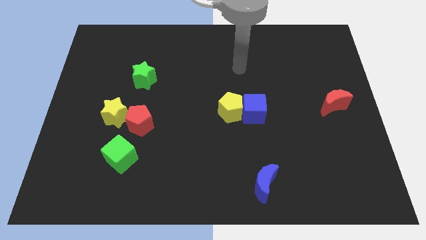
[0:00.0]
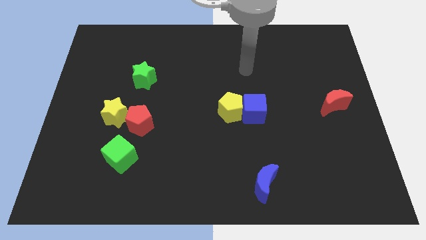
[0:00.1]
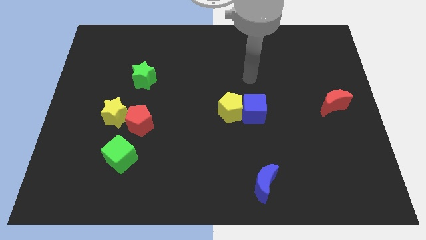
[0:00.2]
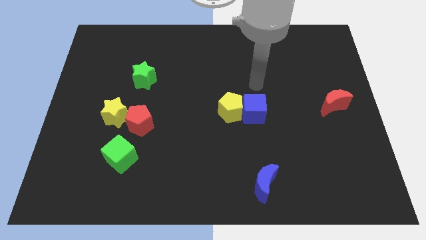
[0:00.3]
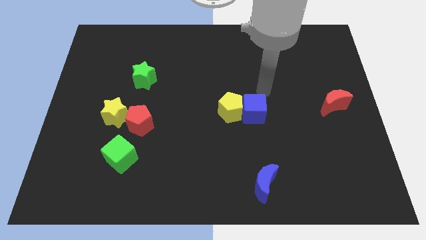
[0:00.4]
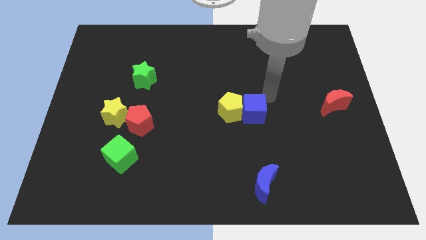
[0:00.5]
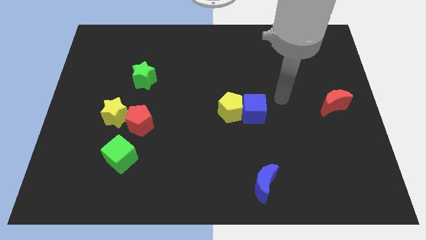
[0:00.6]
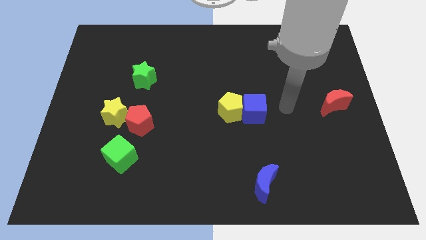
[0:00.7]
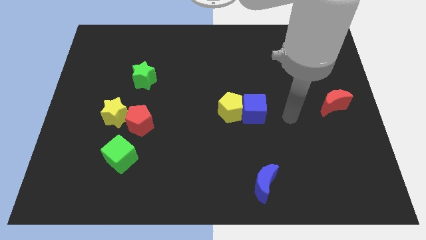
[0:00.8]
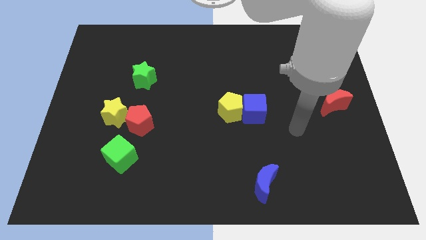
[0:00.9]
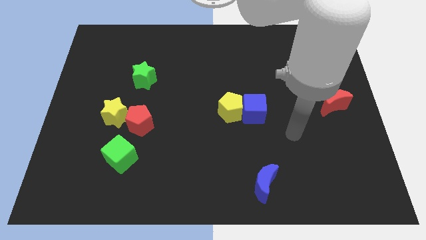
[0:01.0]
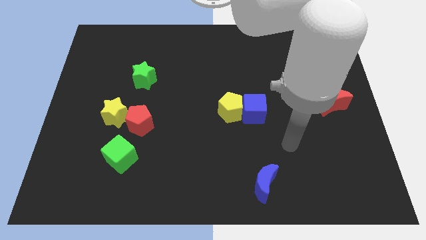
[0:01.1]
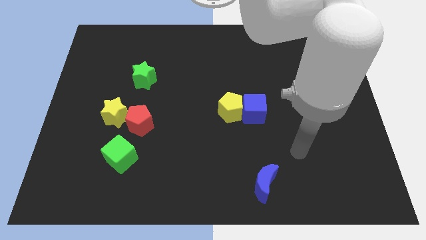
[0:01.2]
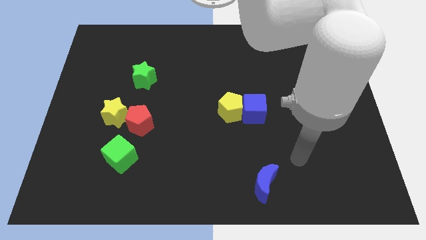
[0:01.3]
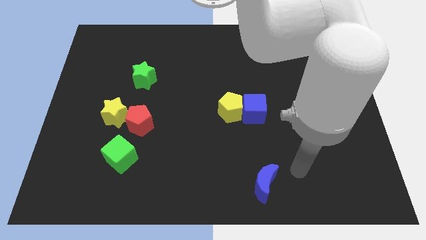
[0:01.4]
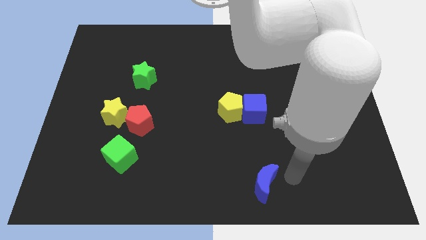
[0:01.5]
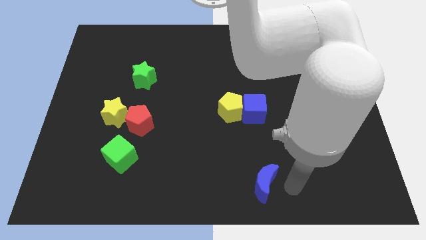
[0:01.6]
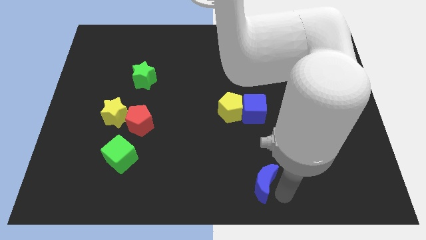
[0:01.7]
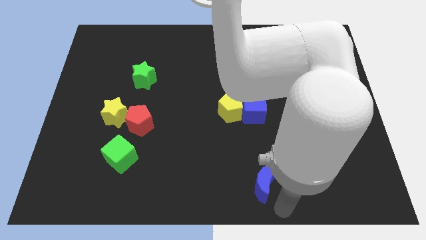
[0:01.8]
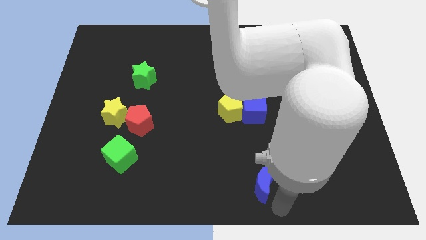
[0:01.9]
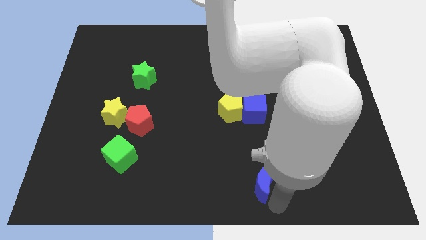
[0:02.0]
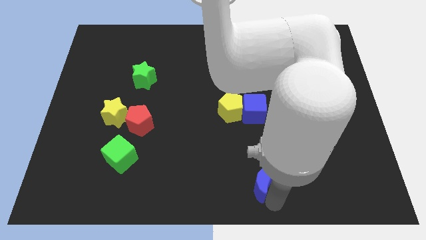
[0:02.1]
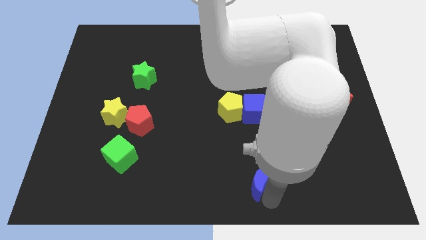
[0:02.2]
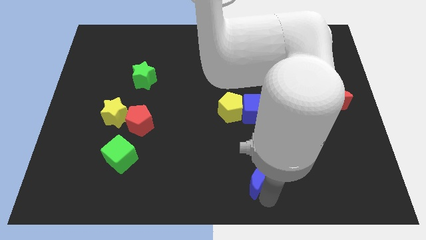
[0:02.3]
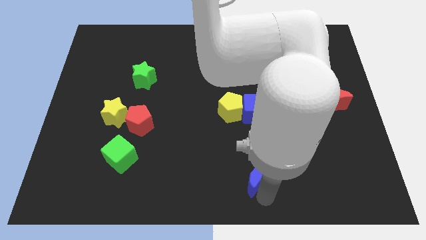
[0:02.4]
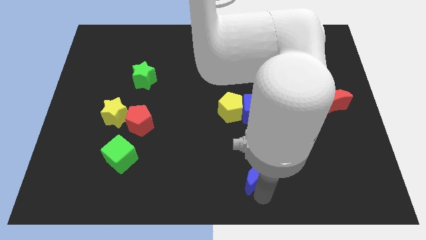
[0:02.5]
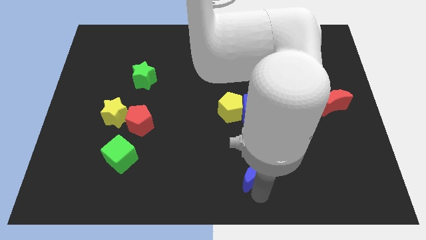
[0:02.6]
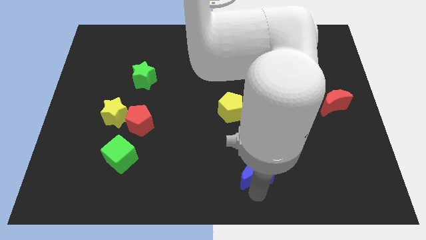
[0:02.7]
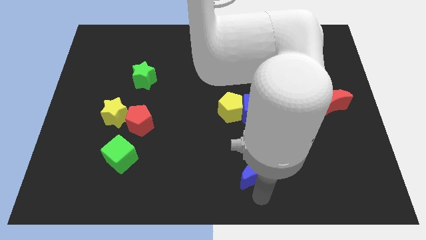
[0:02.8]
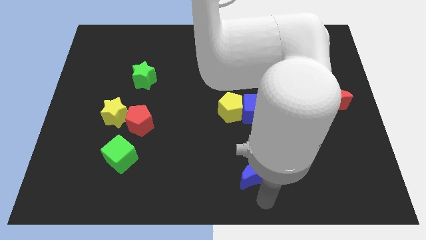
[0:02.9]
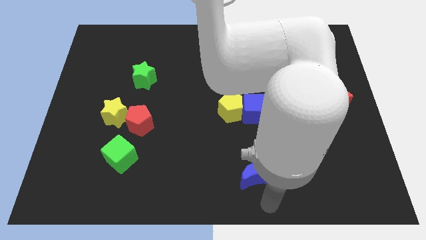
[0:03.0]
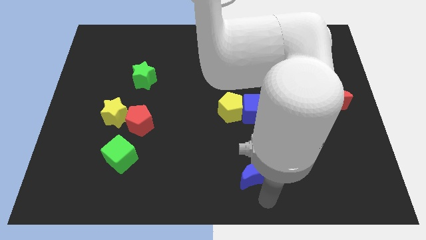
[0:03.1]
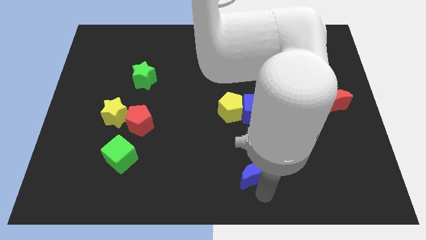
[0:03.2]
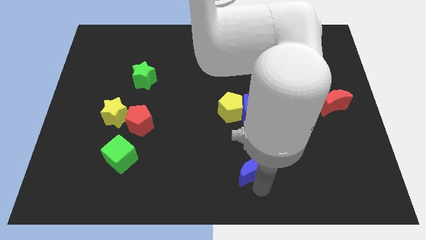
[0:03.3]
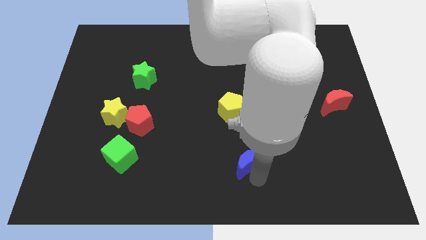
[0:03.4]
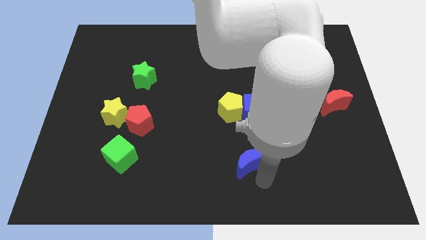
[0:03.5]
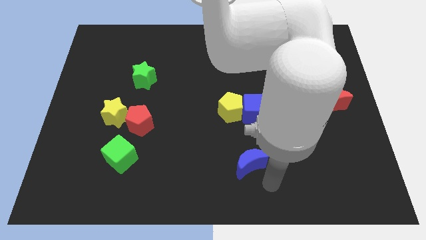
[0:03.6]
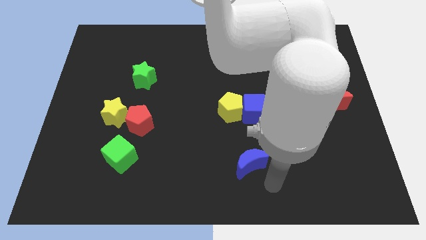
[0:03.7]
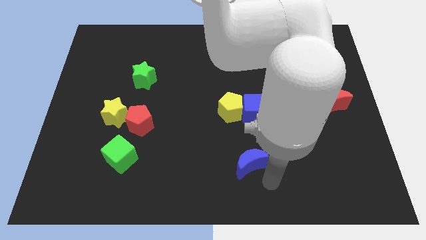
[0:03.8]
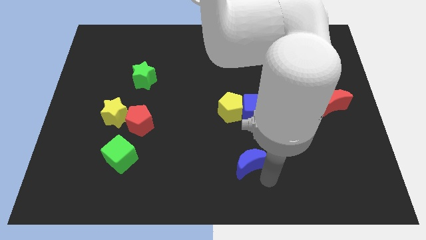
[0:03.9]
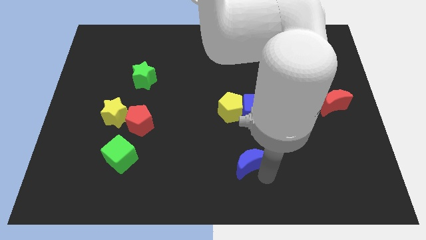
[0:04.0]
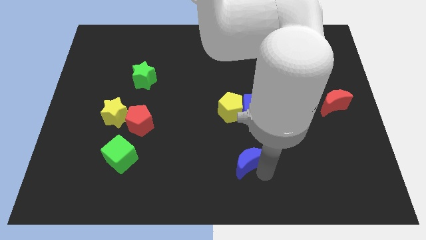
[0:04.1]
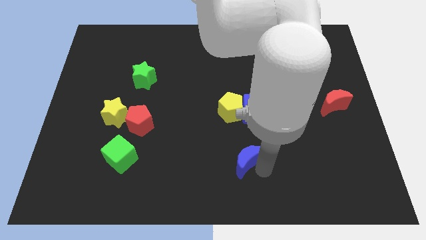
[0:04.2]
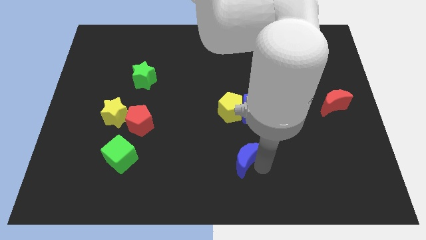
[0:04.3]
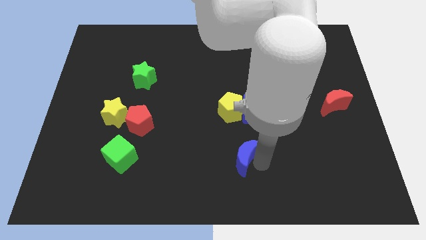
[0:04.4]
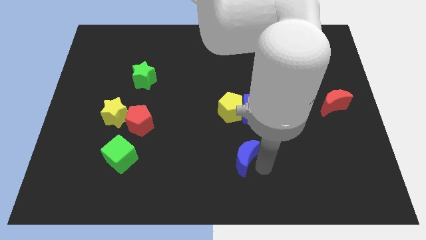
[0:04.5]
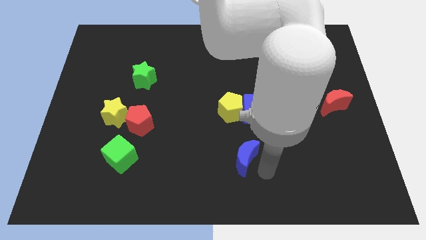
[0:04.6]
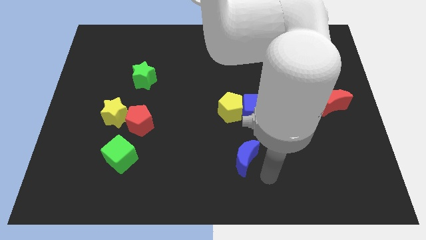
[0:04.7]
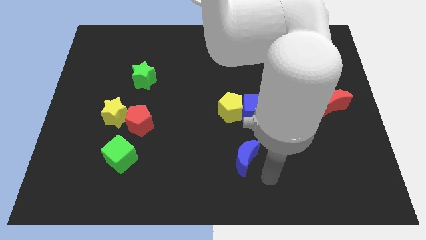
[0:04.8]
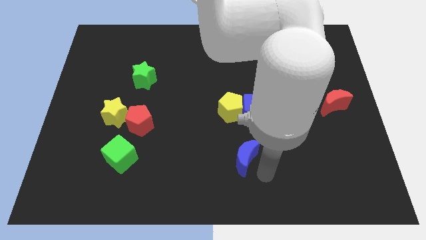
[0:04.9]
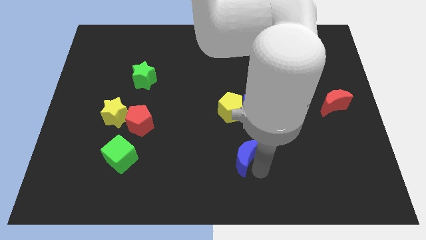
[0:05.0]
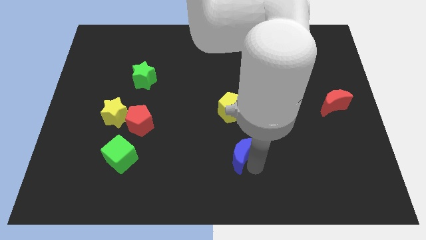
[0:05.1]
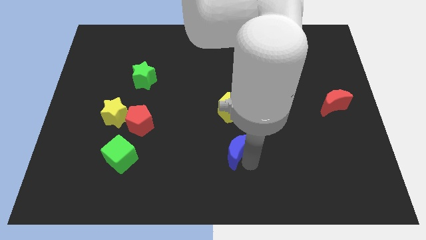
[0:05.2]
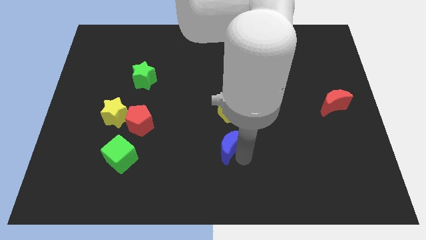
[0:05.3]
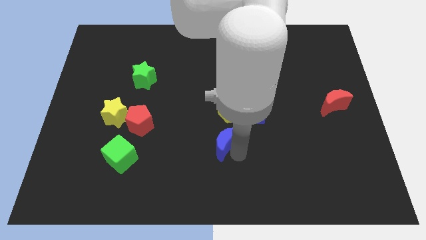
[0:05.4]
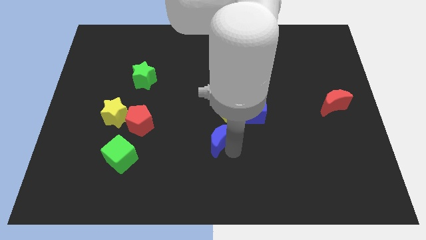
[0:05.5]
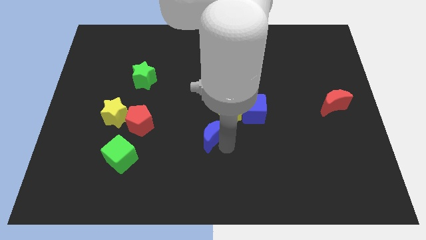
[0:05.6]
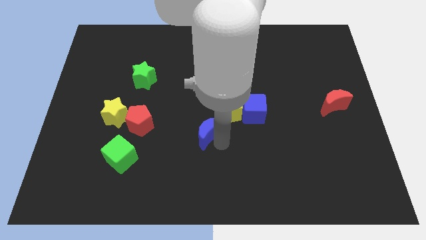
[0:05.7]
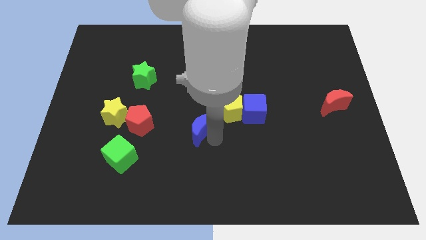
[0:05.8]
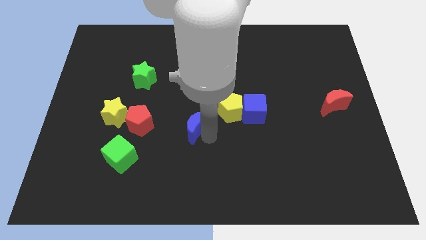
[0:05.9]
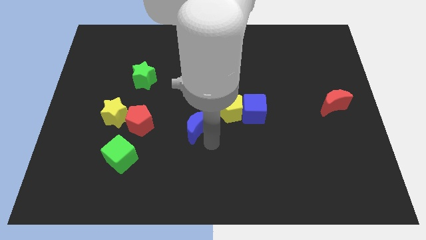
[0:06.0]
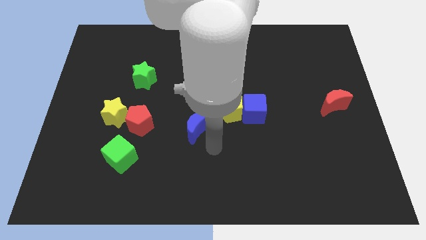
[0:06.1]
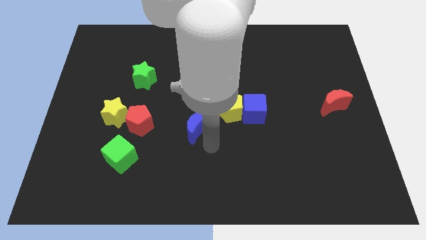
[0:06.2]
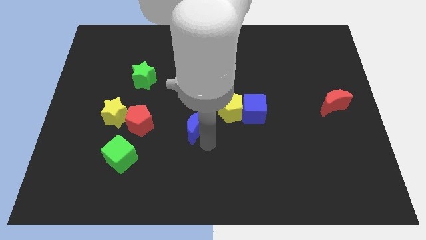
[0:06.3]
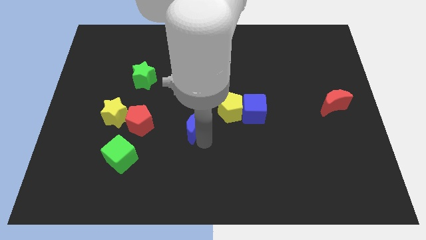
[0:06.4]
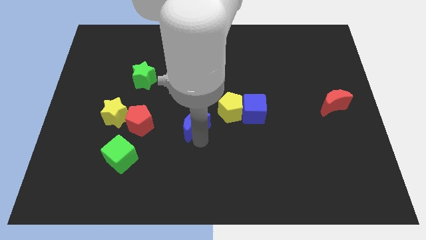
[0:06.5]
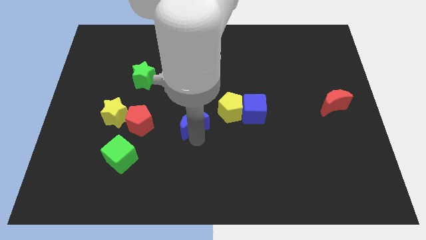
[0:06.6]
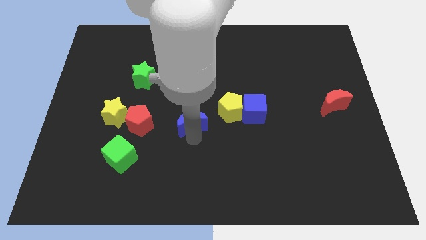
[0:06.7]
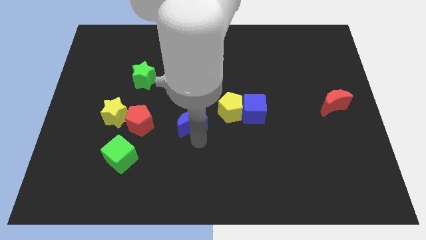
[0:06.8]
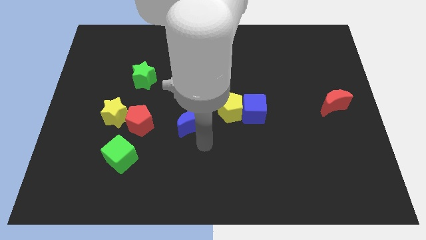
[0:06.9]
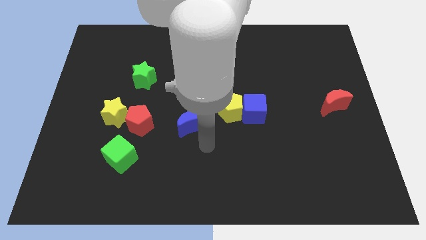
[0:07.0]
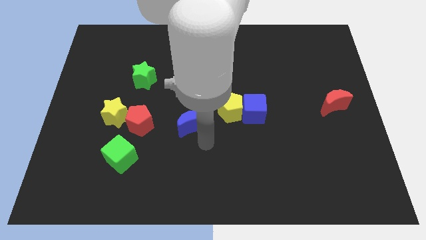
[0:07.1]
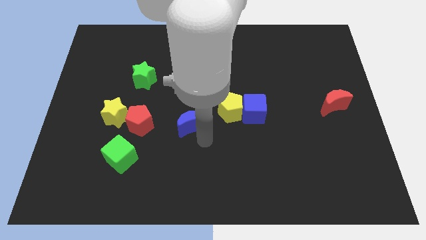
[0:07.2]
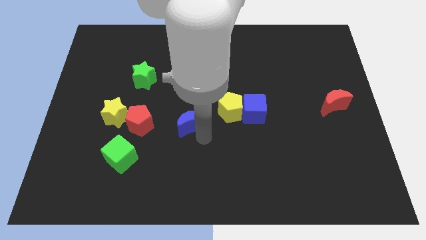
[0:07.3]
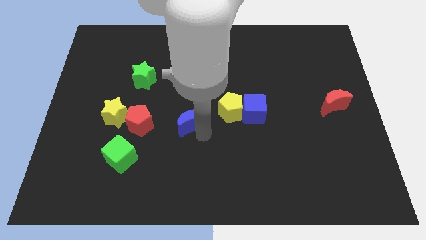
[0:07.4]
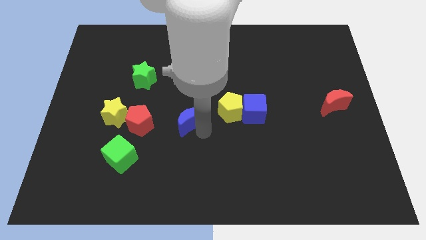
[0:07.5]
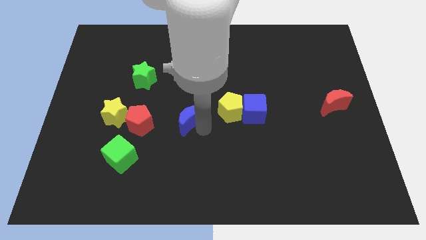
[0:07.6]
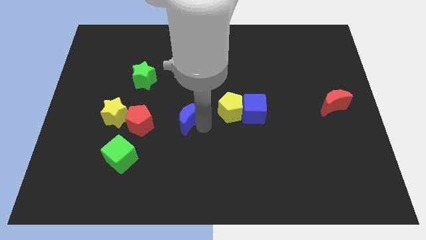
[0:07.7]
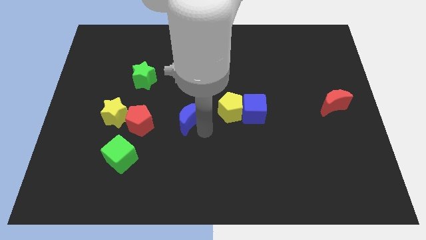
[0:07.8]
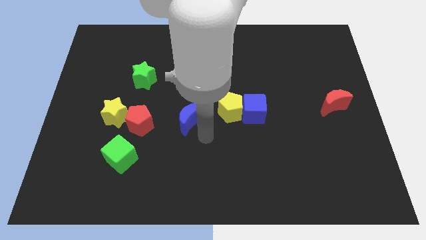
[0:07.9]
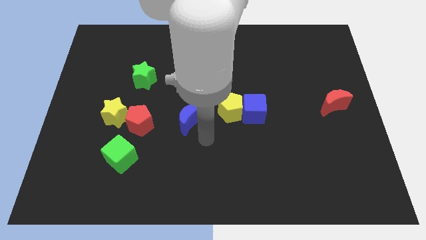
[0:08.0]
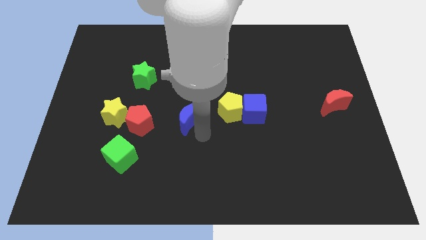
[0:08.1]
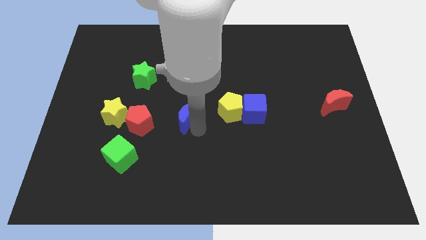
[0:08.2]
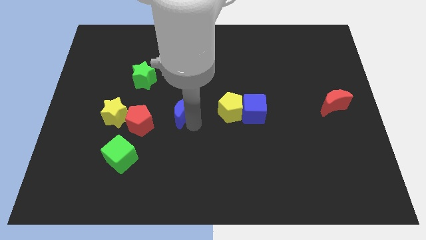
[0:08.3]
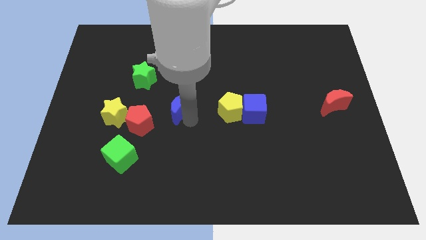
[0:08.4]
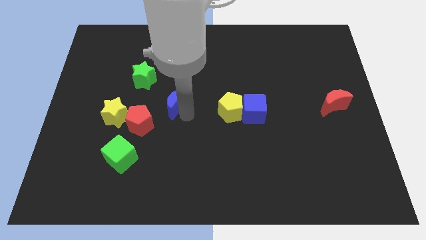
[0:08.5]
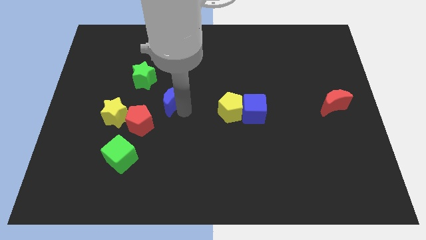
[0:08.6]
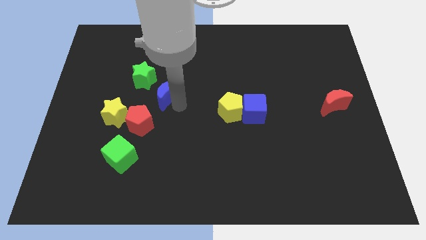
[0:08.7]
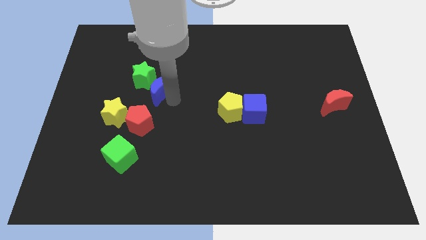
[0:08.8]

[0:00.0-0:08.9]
put the blue moon close to the green star
